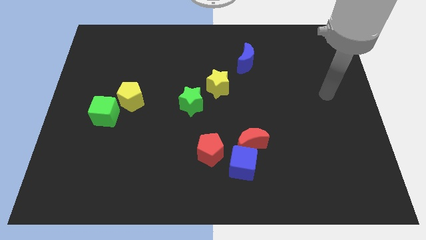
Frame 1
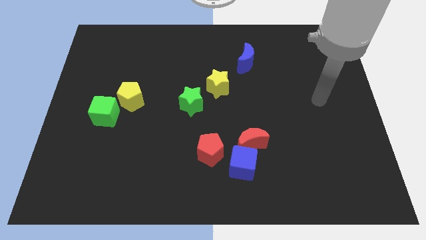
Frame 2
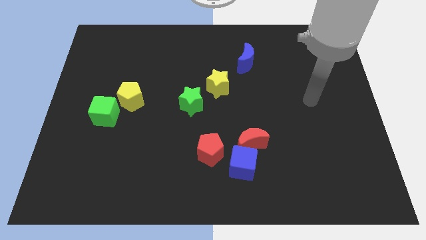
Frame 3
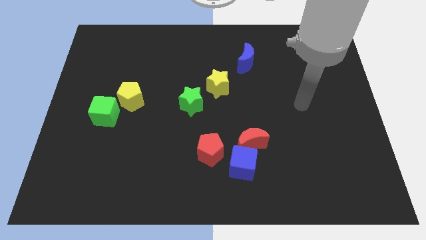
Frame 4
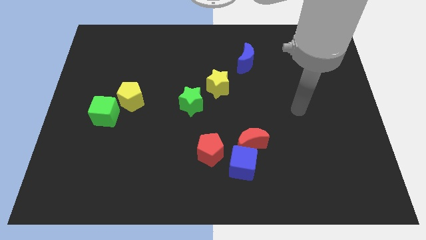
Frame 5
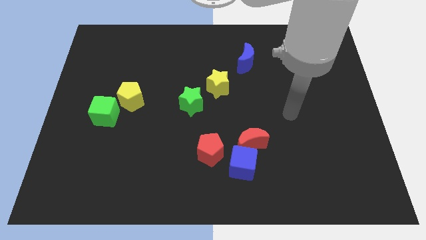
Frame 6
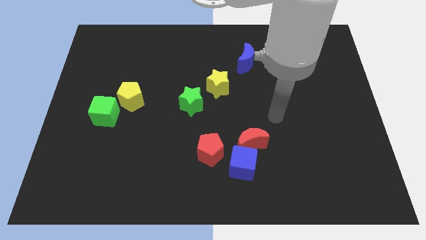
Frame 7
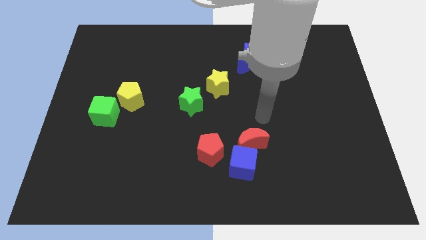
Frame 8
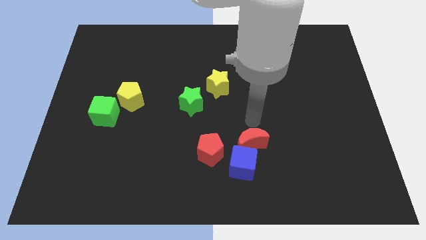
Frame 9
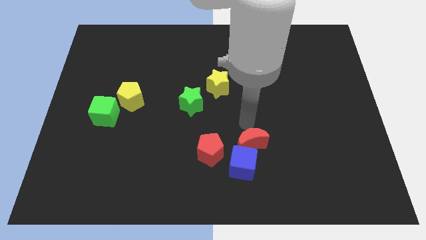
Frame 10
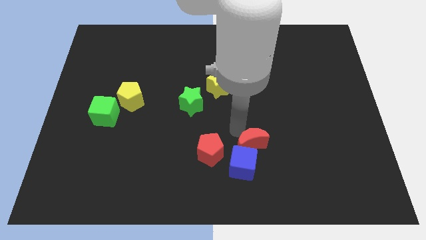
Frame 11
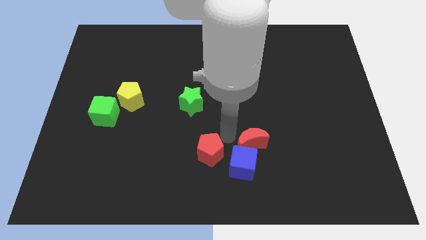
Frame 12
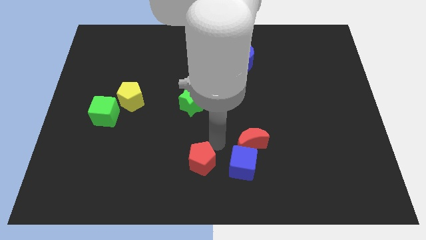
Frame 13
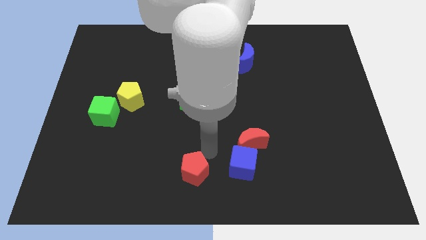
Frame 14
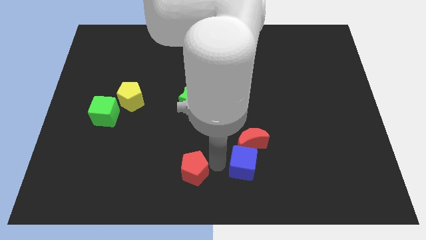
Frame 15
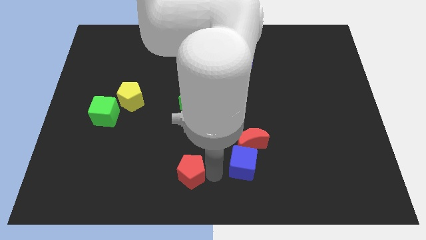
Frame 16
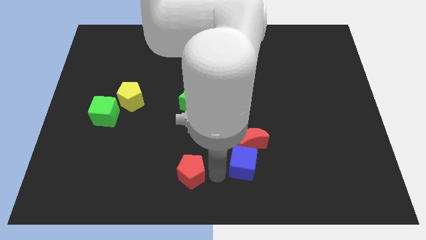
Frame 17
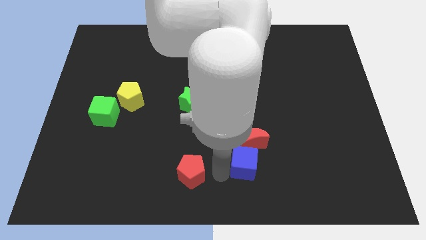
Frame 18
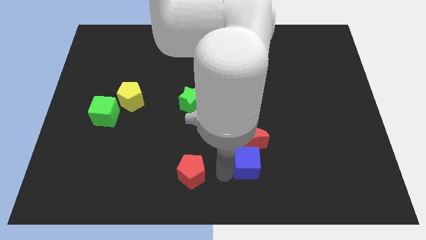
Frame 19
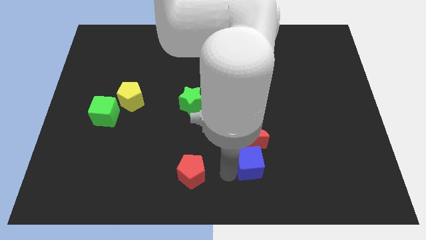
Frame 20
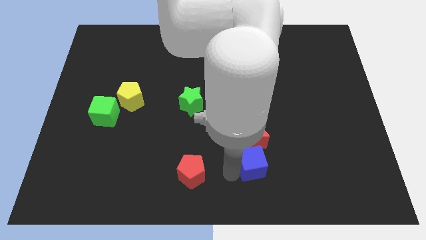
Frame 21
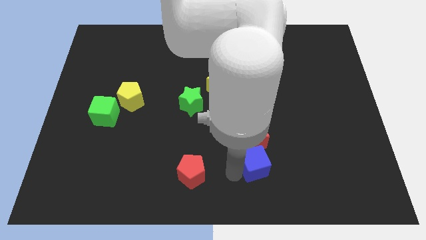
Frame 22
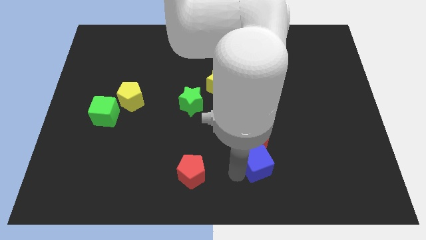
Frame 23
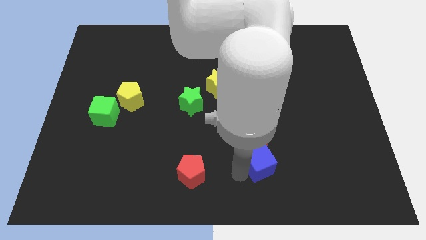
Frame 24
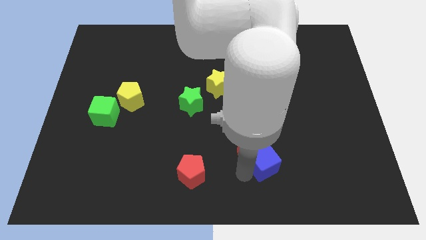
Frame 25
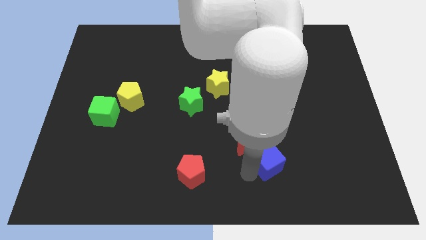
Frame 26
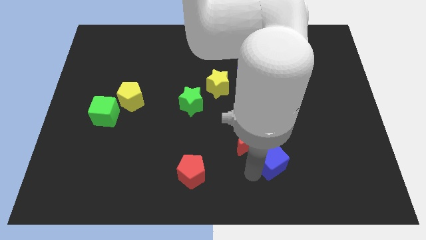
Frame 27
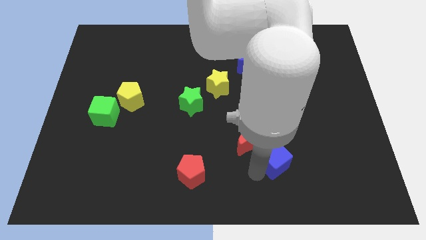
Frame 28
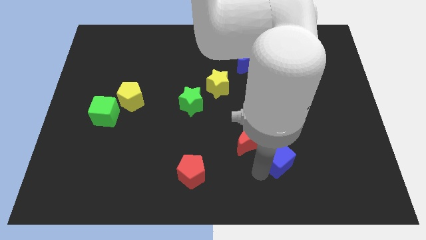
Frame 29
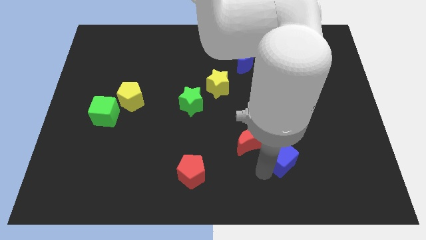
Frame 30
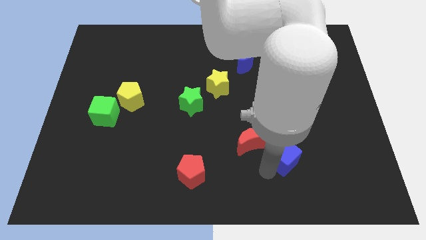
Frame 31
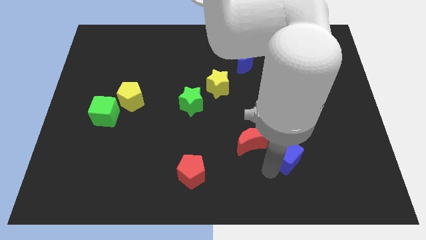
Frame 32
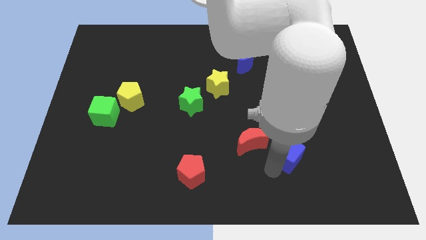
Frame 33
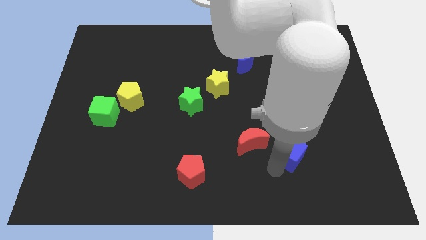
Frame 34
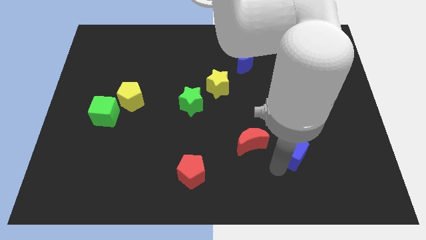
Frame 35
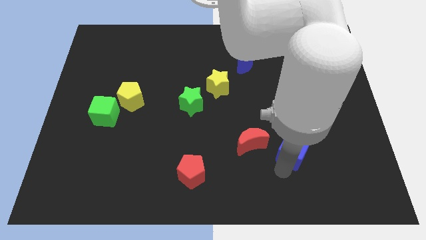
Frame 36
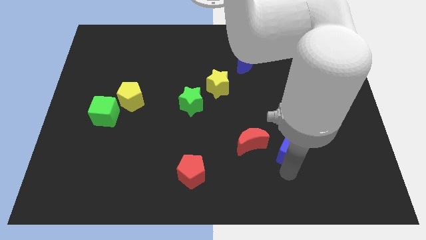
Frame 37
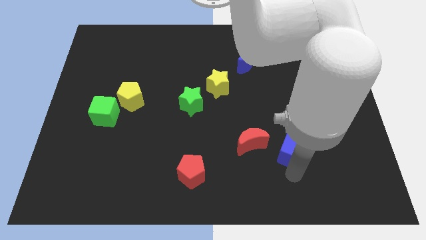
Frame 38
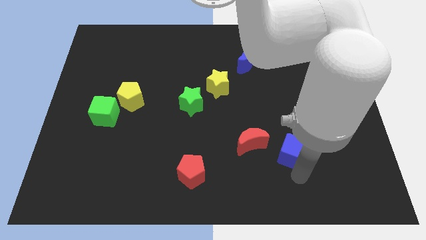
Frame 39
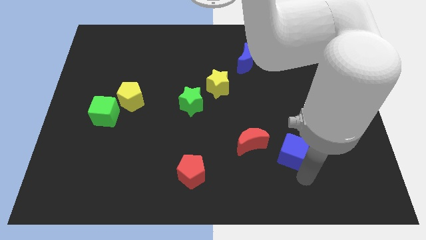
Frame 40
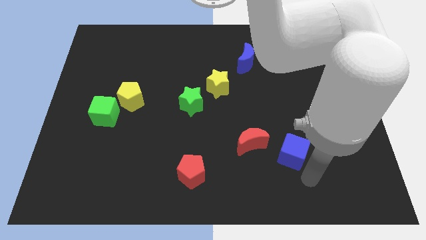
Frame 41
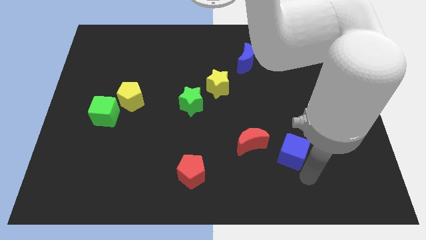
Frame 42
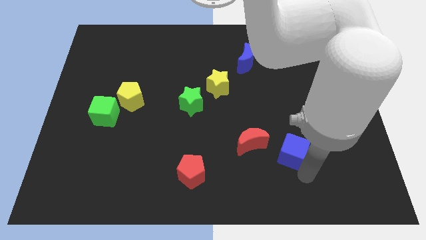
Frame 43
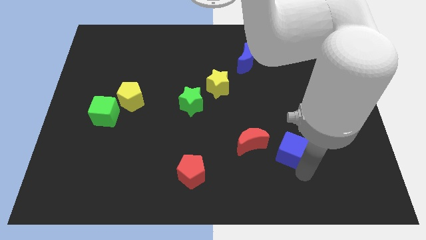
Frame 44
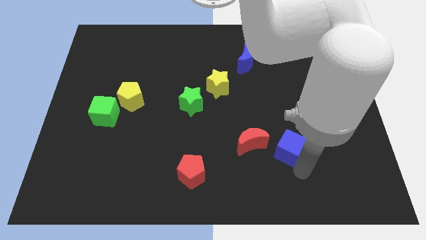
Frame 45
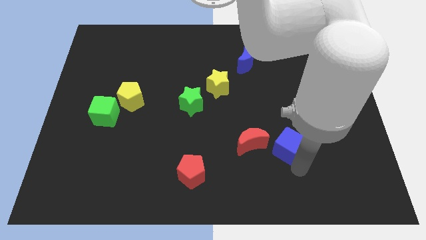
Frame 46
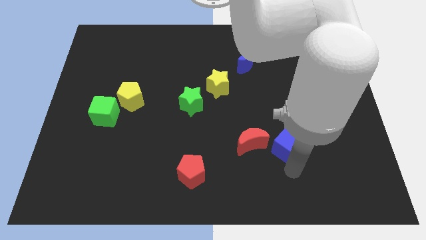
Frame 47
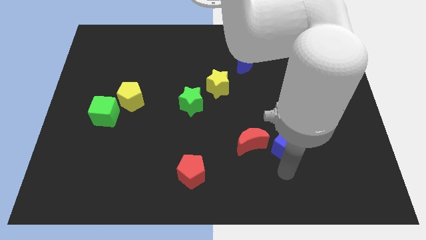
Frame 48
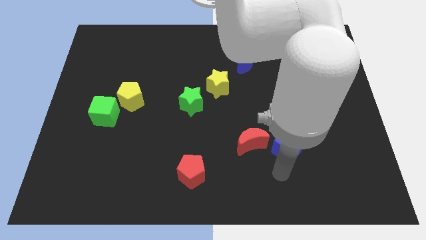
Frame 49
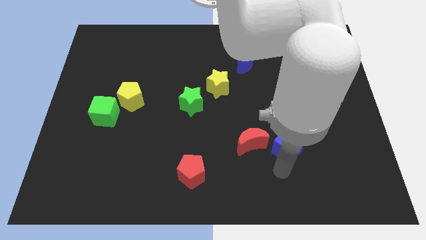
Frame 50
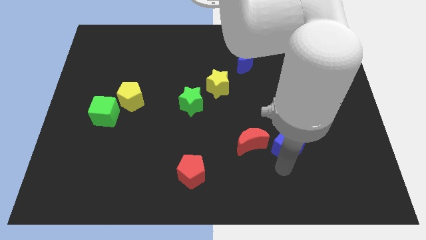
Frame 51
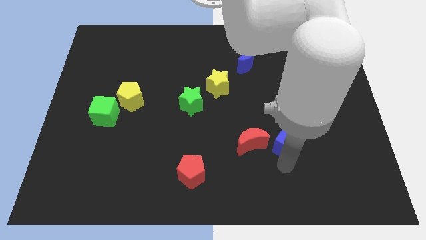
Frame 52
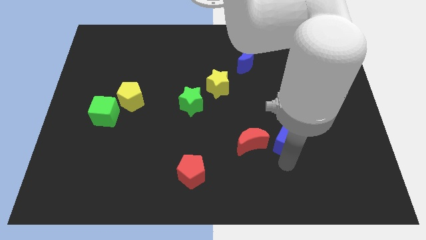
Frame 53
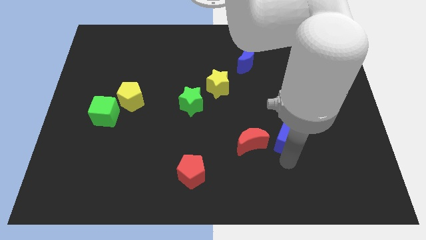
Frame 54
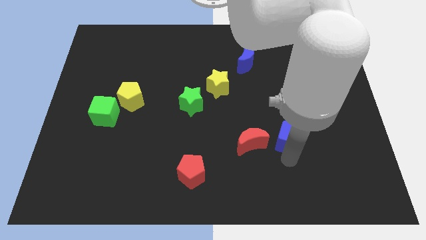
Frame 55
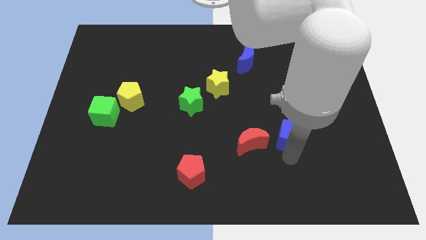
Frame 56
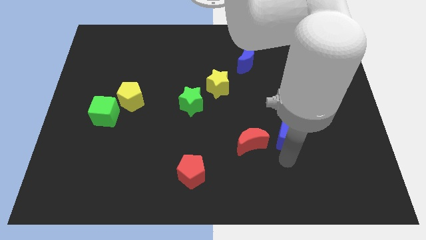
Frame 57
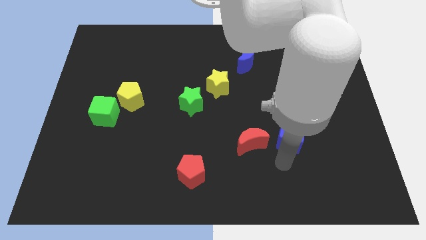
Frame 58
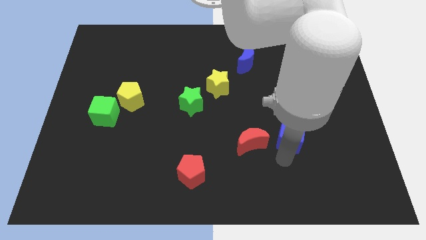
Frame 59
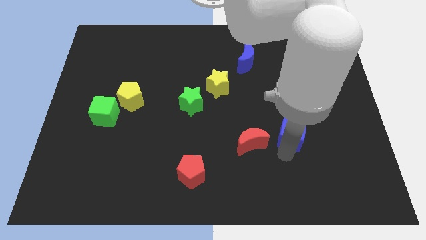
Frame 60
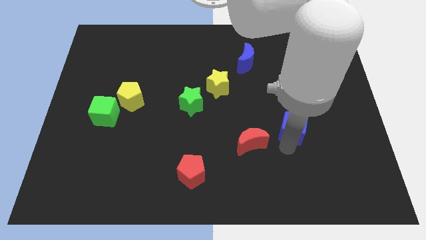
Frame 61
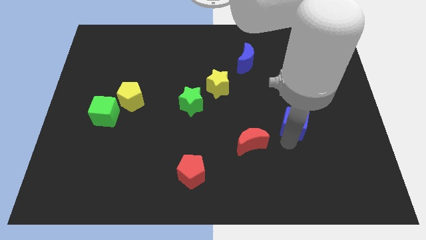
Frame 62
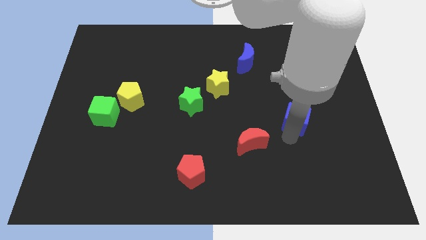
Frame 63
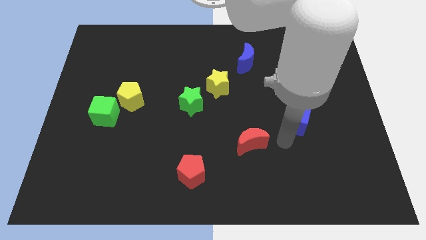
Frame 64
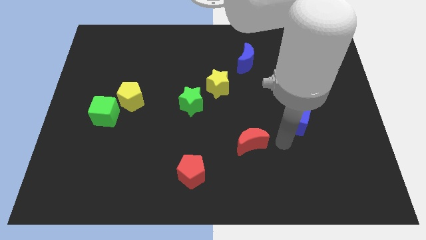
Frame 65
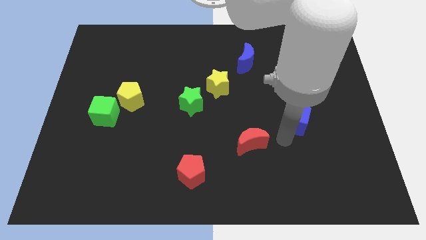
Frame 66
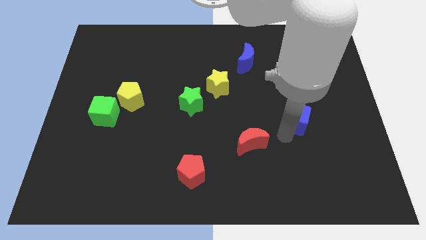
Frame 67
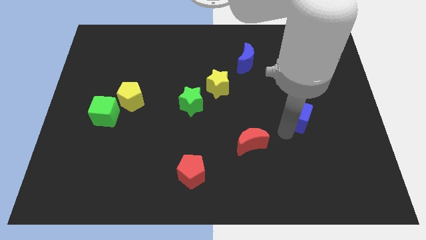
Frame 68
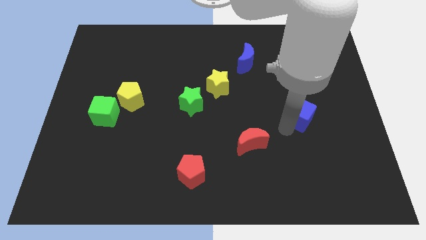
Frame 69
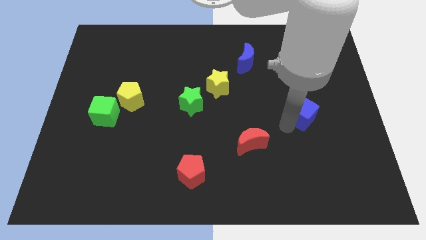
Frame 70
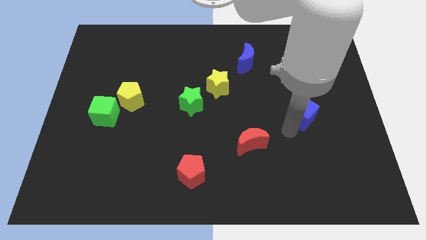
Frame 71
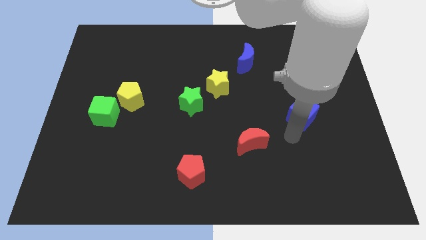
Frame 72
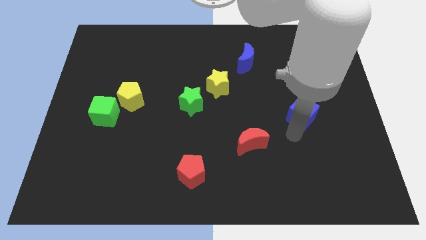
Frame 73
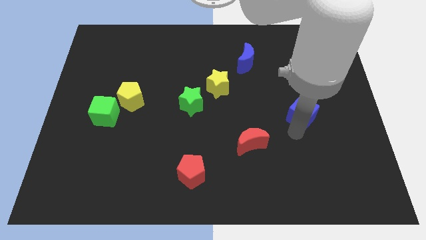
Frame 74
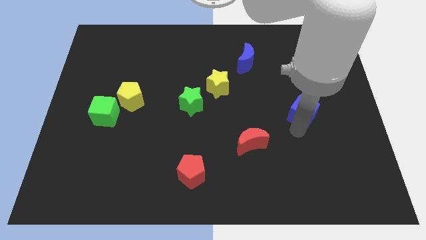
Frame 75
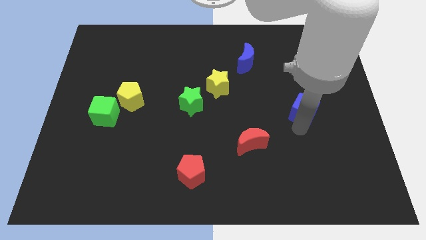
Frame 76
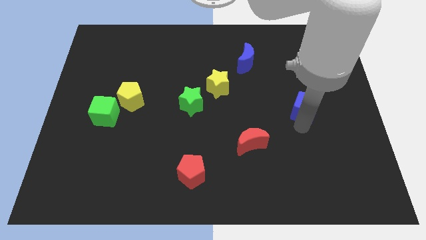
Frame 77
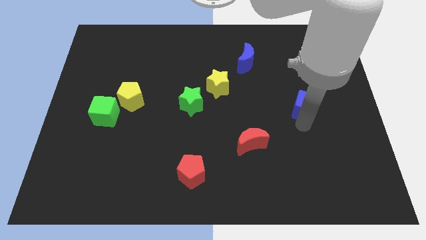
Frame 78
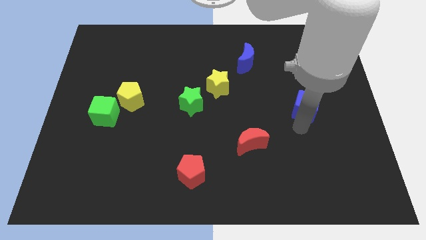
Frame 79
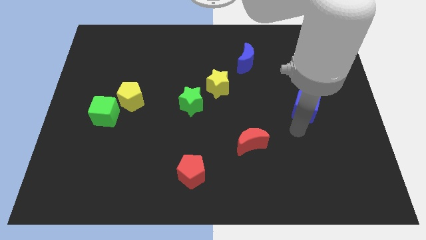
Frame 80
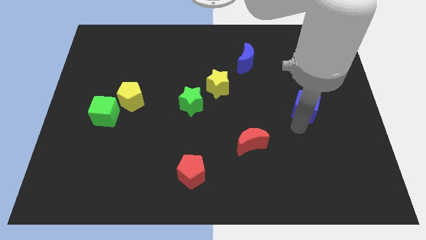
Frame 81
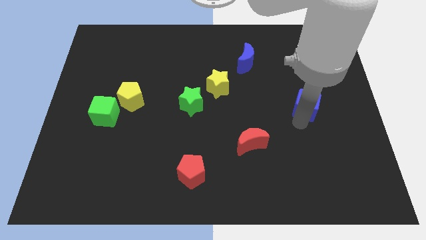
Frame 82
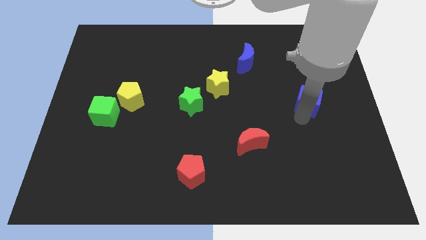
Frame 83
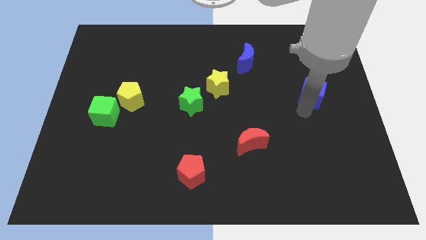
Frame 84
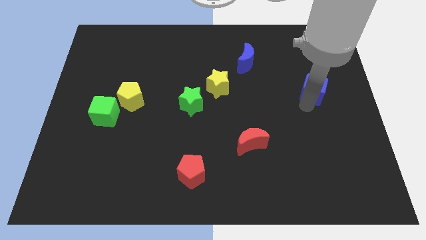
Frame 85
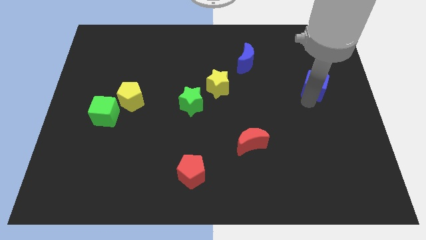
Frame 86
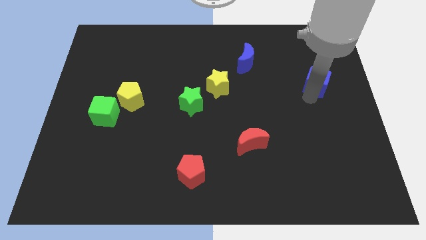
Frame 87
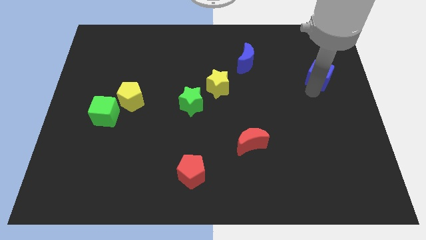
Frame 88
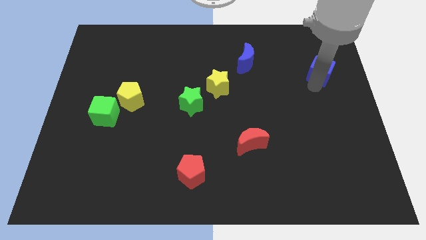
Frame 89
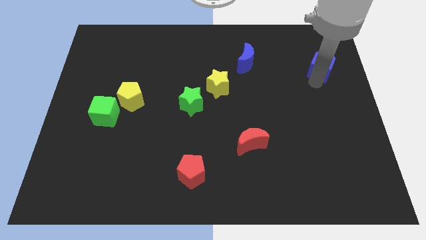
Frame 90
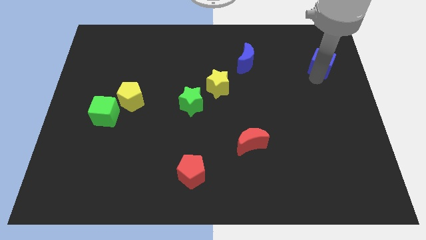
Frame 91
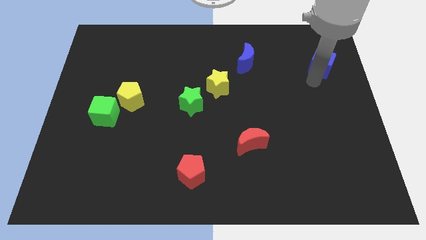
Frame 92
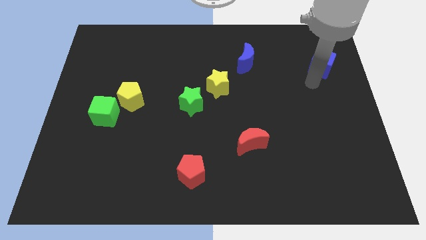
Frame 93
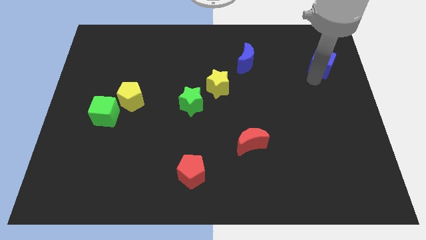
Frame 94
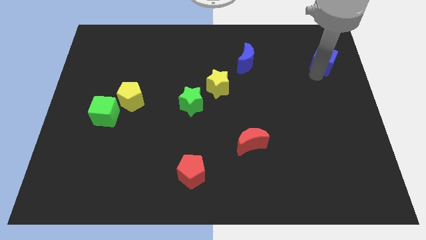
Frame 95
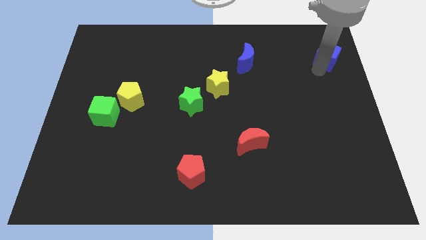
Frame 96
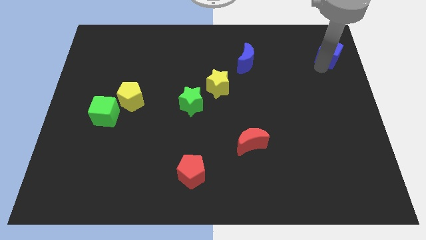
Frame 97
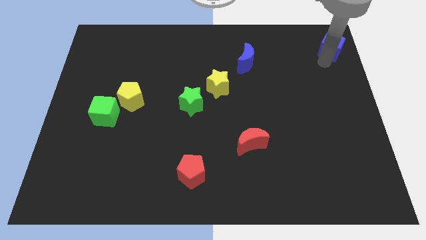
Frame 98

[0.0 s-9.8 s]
push the blue cube to the upper right corner
